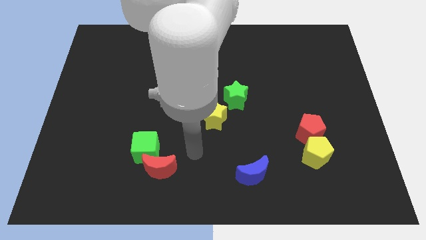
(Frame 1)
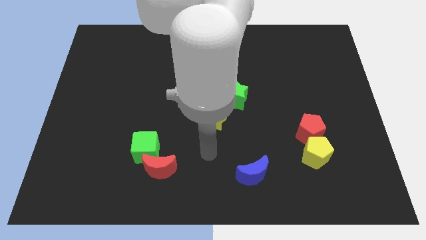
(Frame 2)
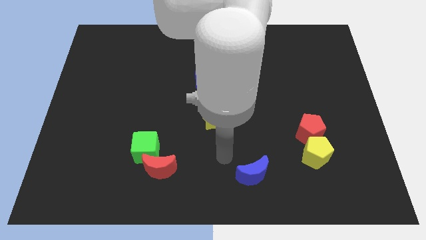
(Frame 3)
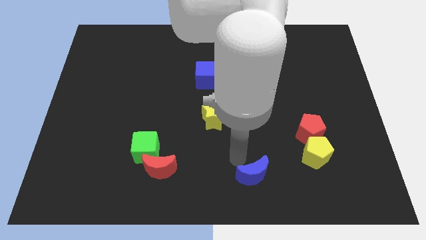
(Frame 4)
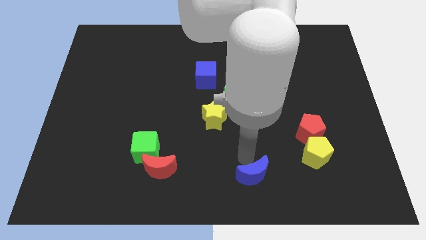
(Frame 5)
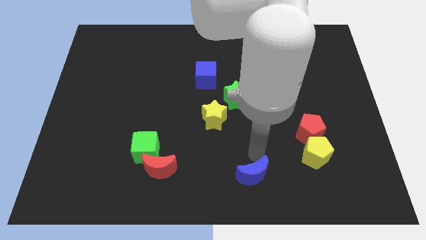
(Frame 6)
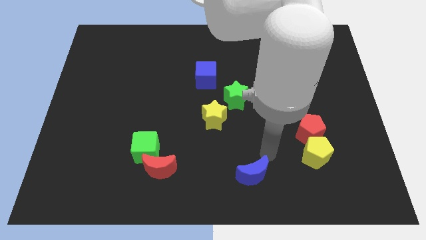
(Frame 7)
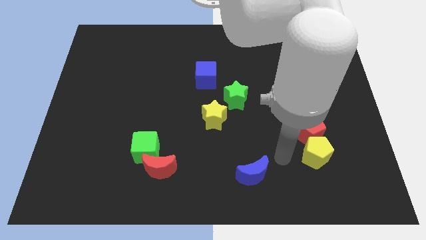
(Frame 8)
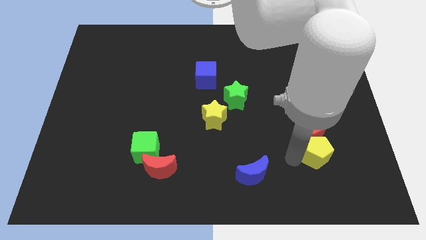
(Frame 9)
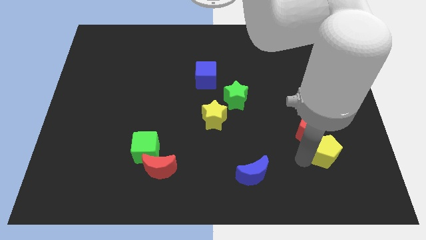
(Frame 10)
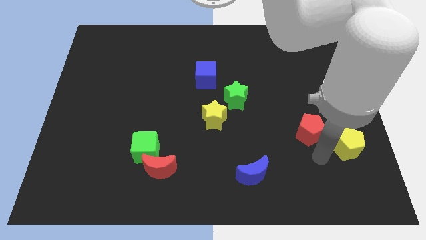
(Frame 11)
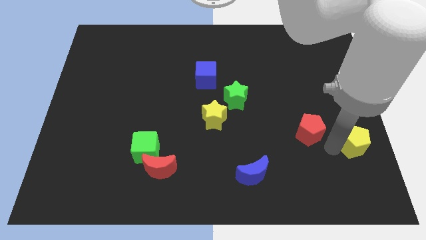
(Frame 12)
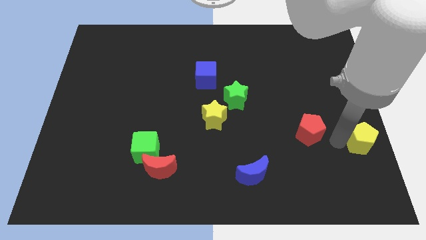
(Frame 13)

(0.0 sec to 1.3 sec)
separate the red pentagon from the yellow pentagon

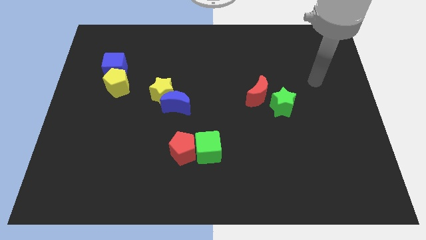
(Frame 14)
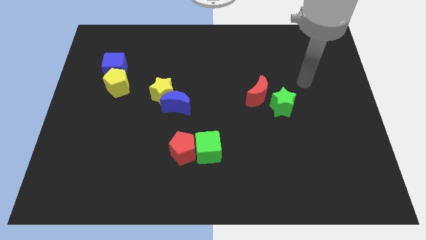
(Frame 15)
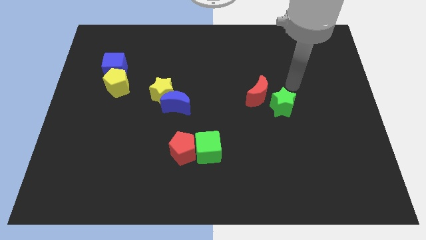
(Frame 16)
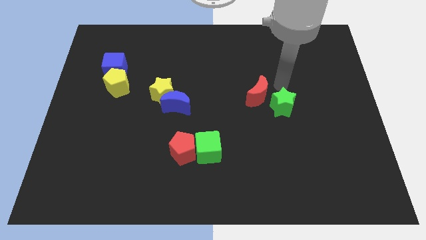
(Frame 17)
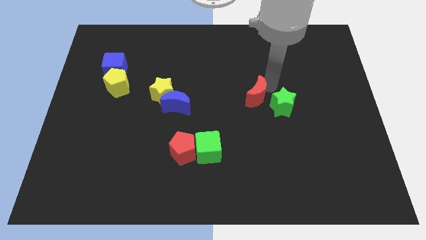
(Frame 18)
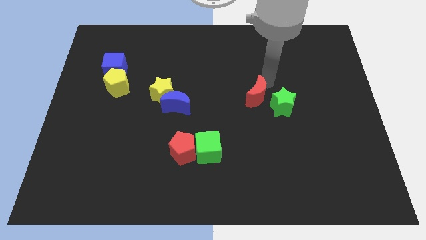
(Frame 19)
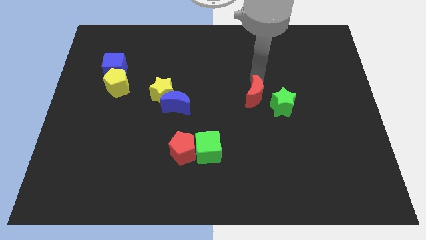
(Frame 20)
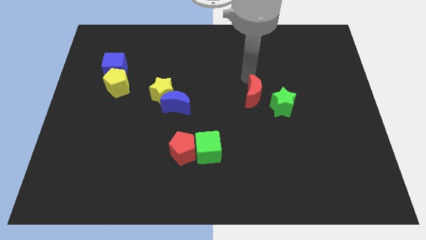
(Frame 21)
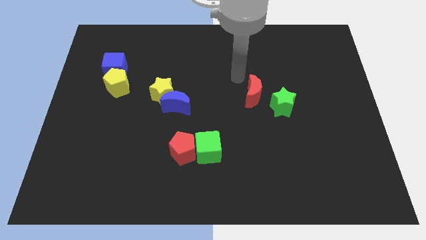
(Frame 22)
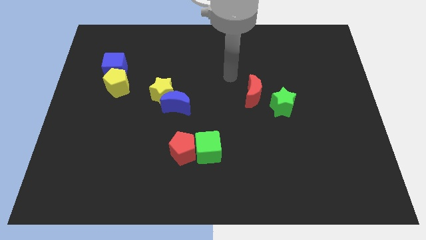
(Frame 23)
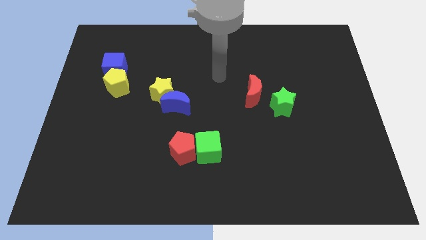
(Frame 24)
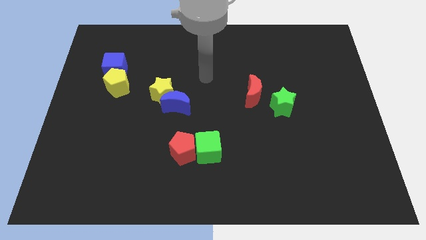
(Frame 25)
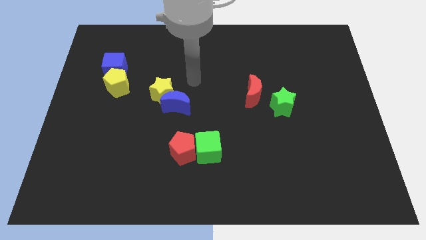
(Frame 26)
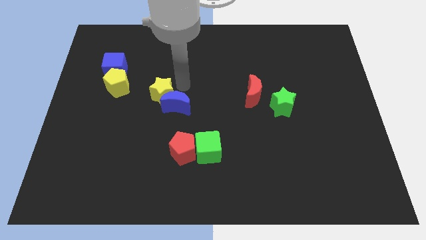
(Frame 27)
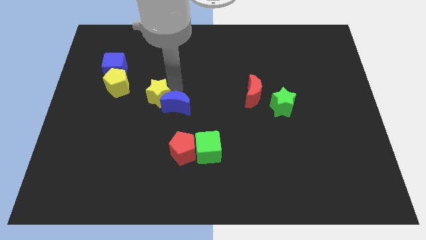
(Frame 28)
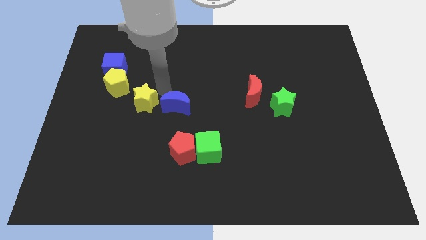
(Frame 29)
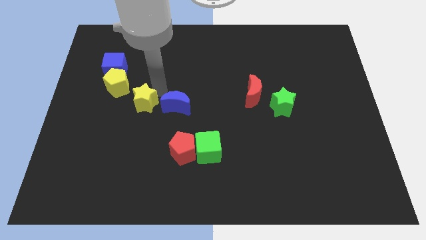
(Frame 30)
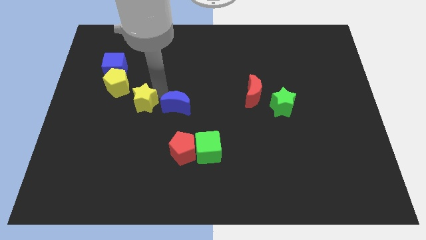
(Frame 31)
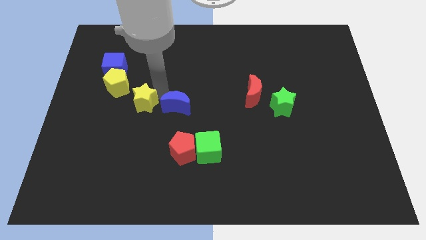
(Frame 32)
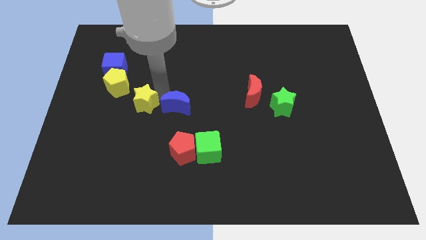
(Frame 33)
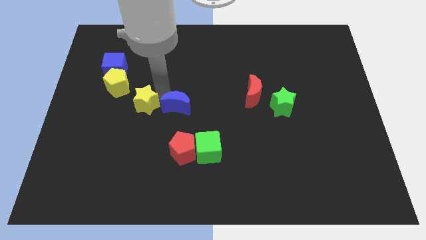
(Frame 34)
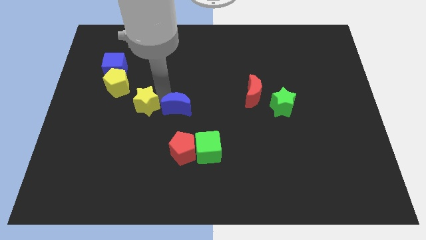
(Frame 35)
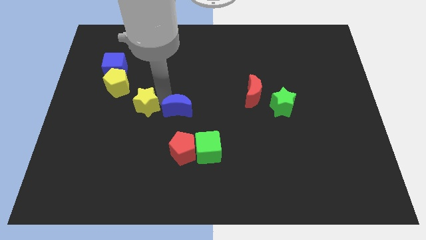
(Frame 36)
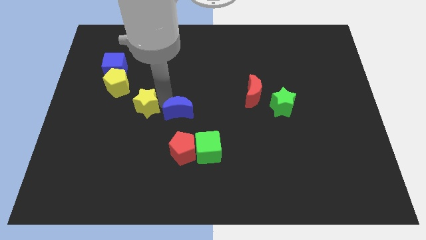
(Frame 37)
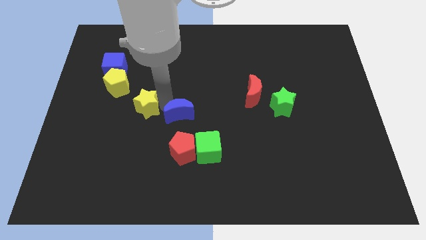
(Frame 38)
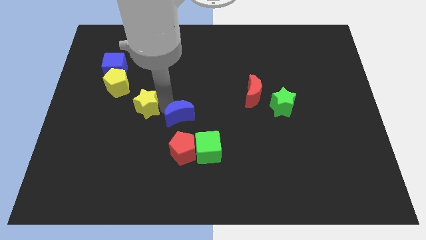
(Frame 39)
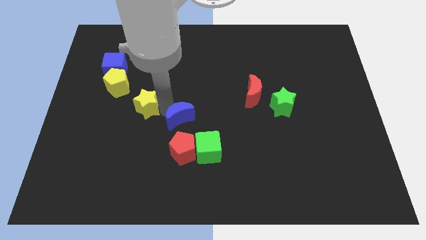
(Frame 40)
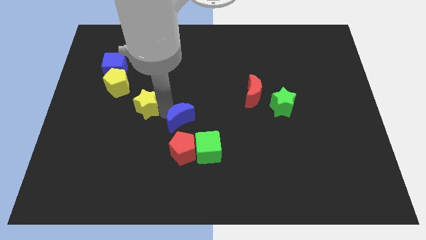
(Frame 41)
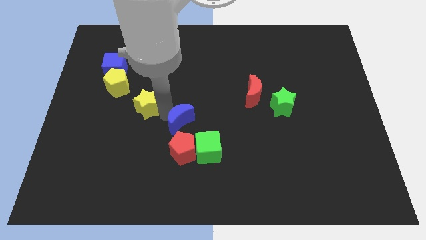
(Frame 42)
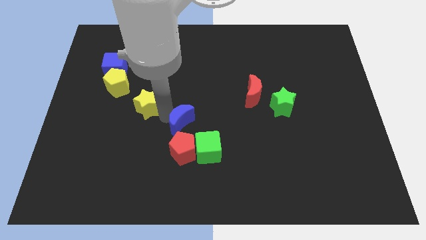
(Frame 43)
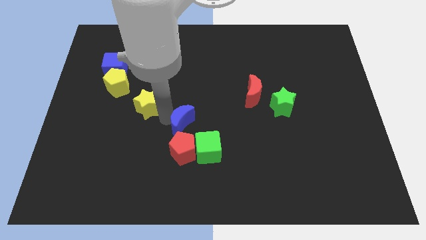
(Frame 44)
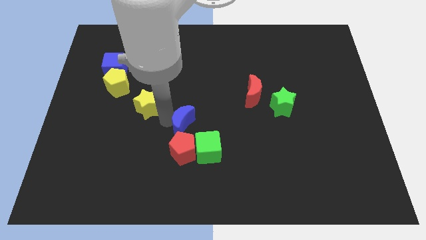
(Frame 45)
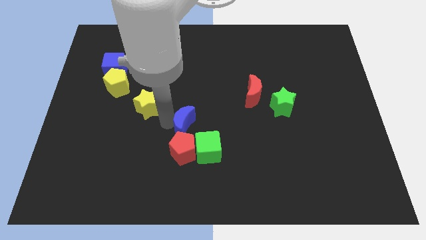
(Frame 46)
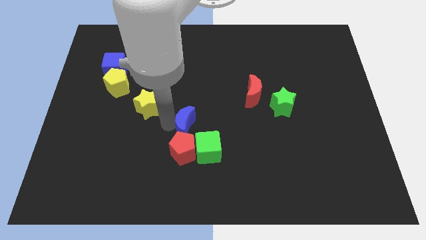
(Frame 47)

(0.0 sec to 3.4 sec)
pull the blue moon apart from the yellow star

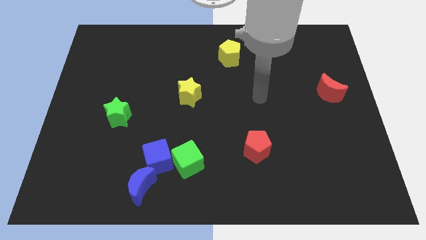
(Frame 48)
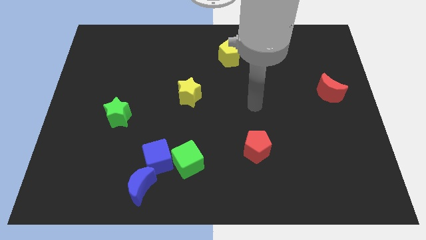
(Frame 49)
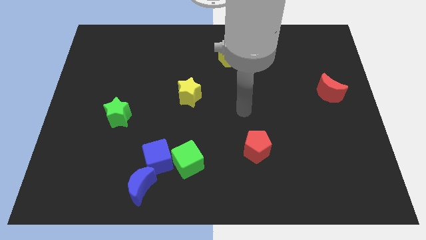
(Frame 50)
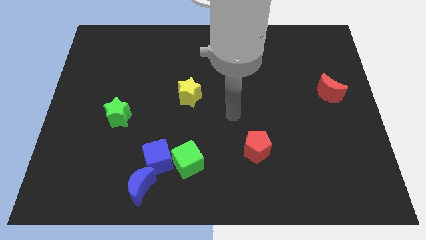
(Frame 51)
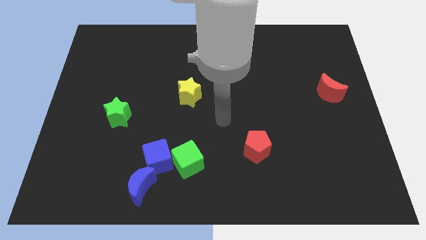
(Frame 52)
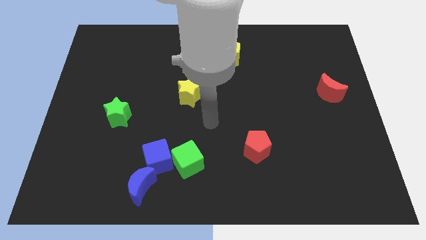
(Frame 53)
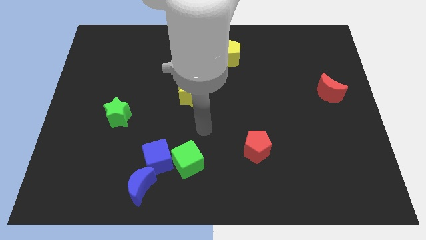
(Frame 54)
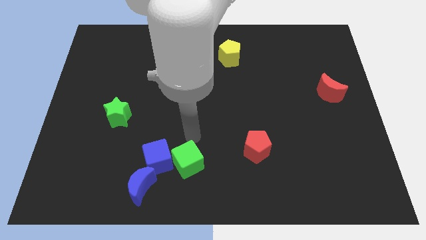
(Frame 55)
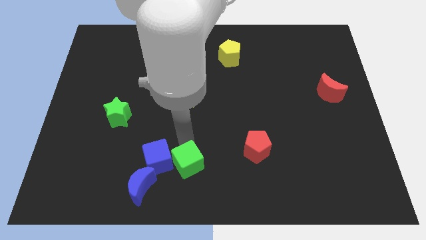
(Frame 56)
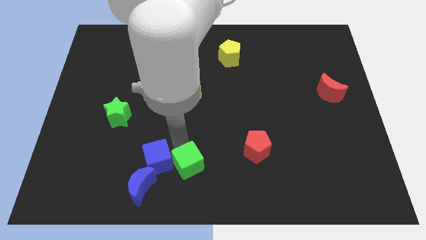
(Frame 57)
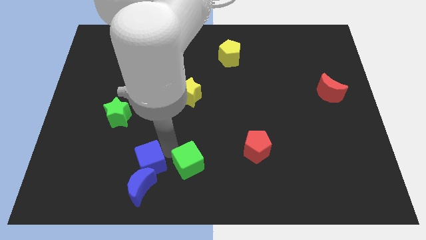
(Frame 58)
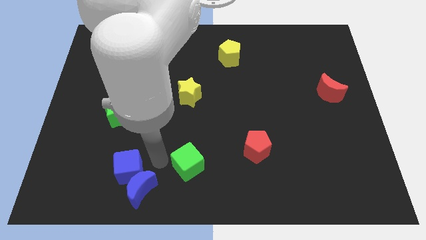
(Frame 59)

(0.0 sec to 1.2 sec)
move the green cube away from the blue cube

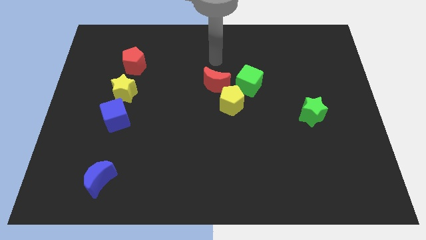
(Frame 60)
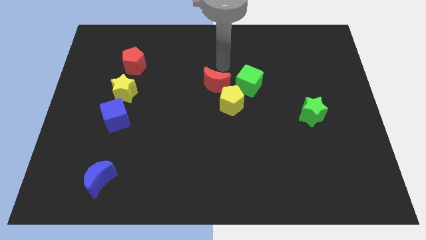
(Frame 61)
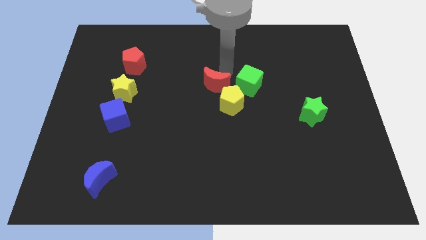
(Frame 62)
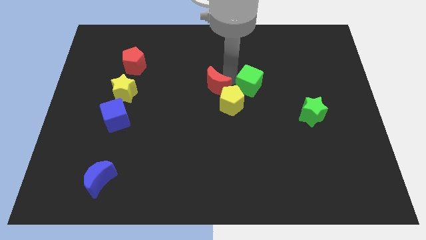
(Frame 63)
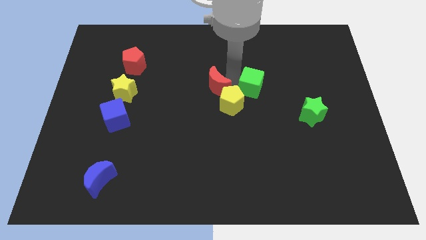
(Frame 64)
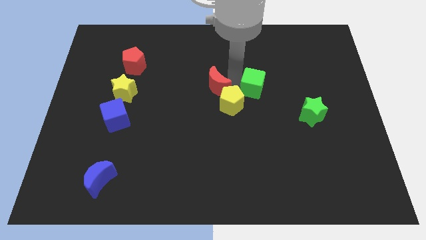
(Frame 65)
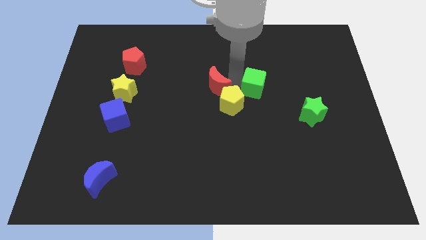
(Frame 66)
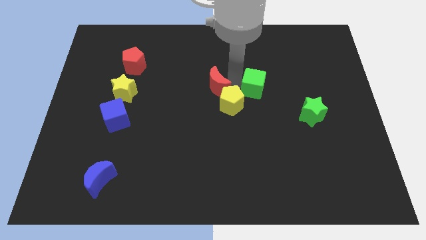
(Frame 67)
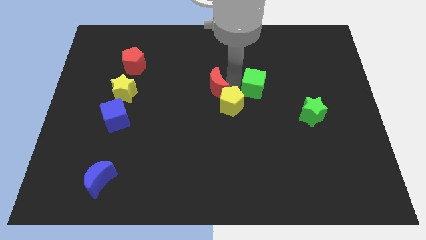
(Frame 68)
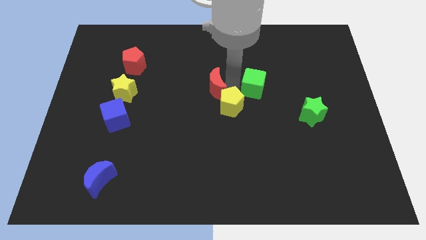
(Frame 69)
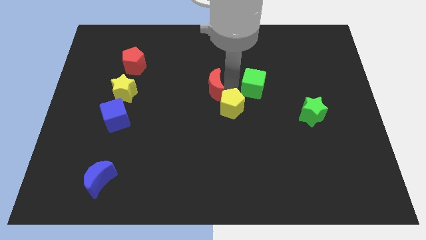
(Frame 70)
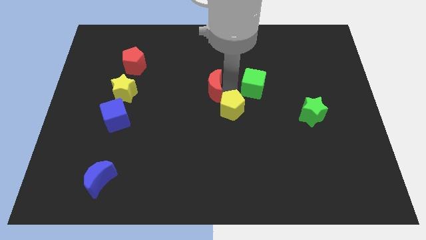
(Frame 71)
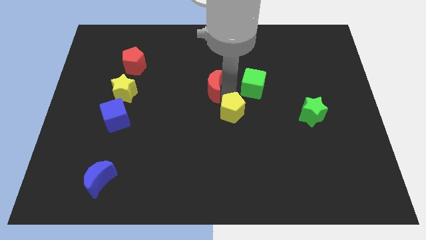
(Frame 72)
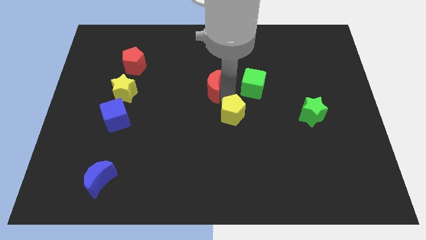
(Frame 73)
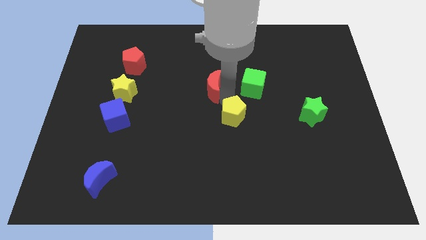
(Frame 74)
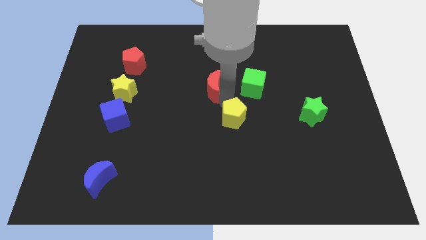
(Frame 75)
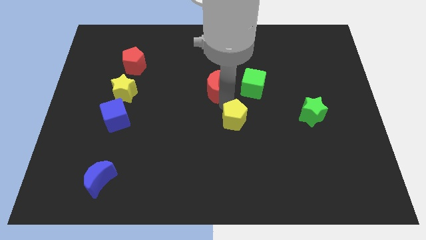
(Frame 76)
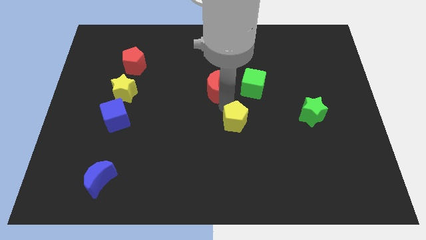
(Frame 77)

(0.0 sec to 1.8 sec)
move the yellow pentagon away from the red moon and green cube

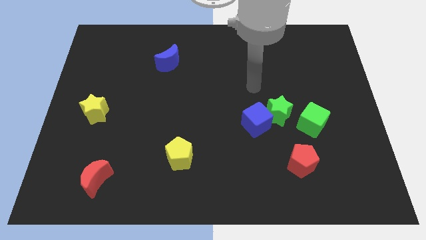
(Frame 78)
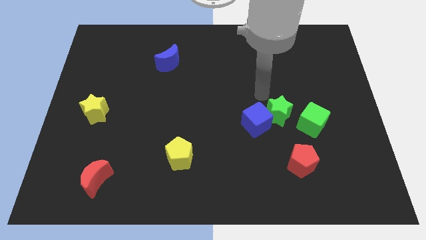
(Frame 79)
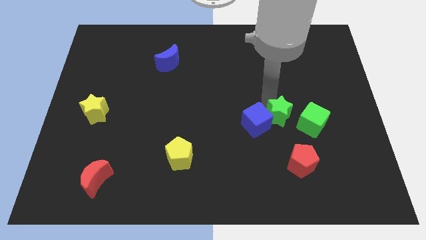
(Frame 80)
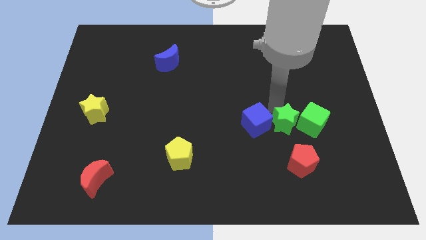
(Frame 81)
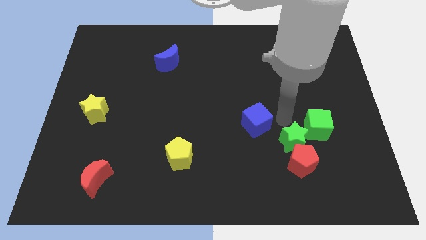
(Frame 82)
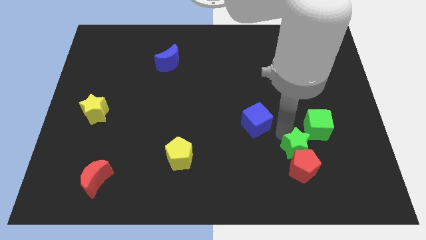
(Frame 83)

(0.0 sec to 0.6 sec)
move the blue cube away from the green star

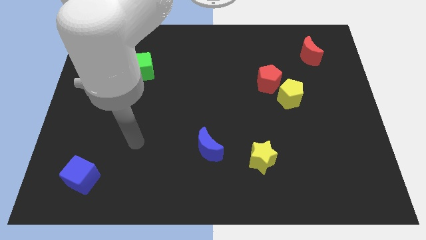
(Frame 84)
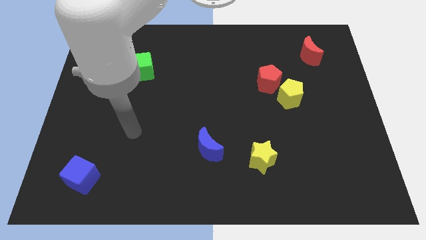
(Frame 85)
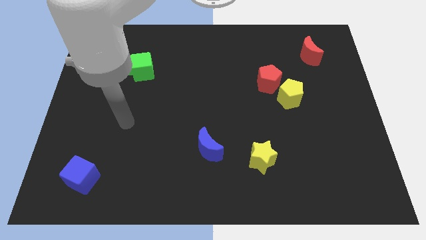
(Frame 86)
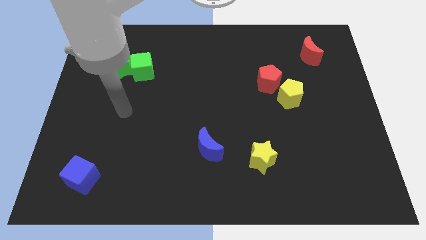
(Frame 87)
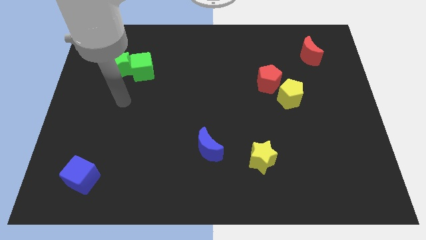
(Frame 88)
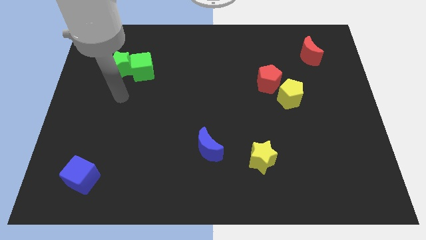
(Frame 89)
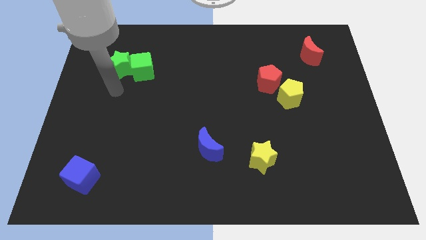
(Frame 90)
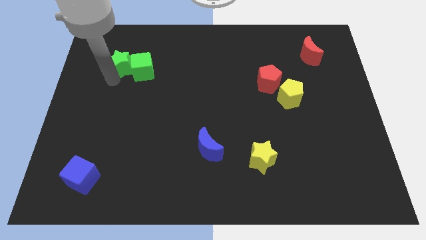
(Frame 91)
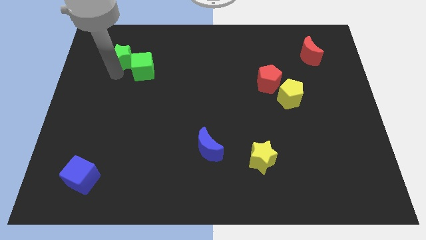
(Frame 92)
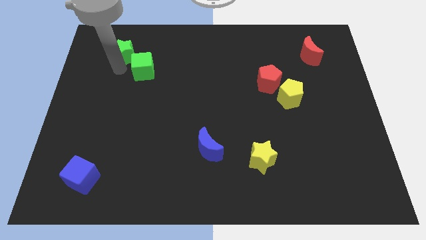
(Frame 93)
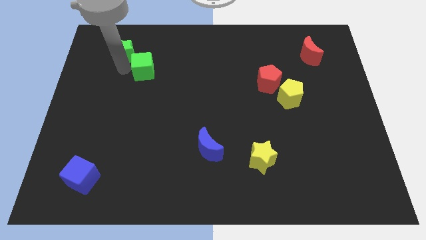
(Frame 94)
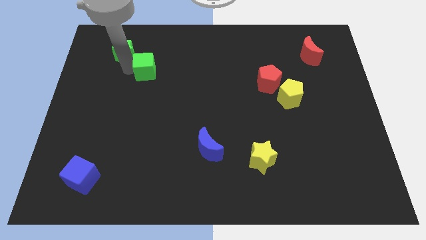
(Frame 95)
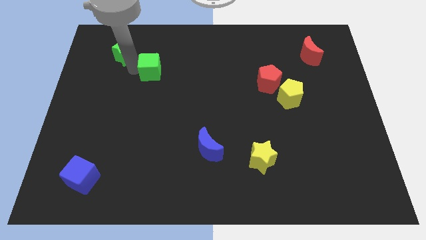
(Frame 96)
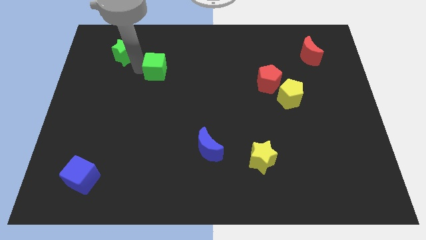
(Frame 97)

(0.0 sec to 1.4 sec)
move the green cube away from the green star
